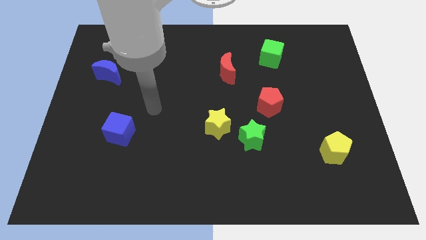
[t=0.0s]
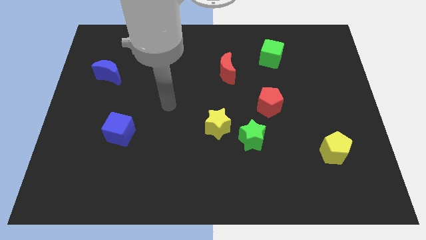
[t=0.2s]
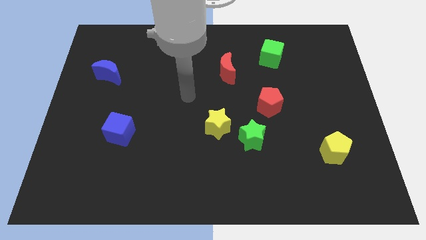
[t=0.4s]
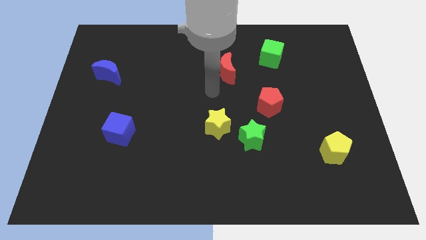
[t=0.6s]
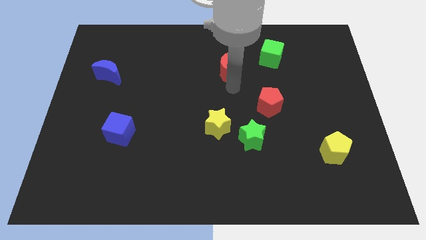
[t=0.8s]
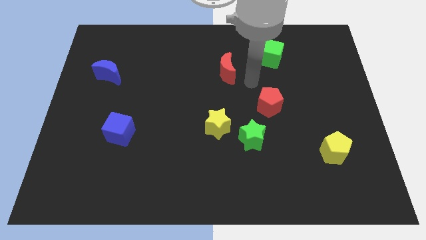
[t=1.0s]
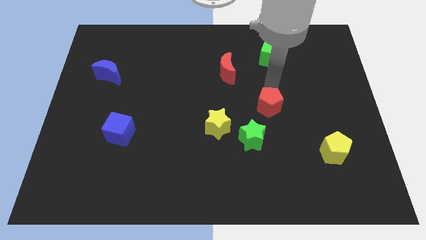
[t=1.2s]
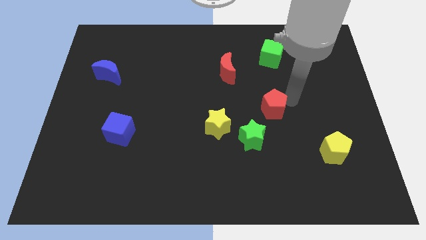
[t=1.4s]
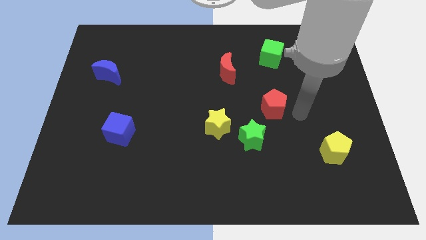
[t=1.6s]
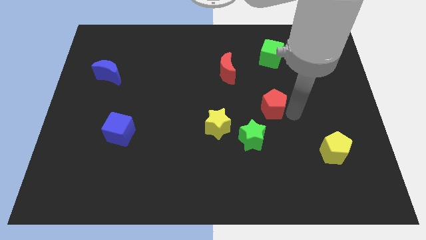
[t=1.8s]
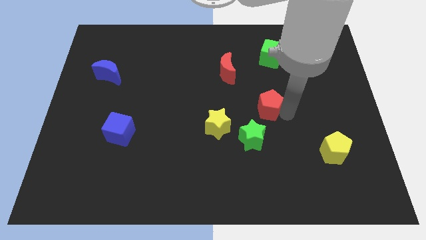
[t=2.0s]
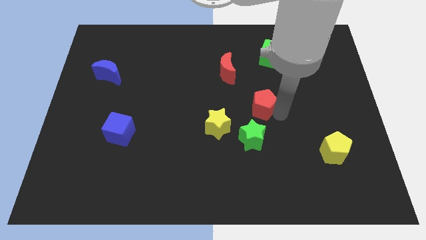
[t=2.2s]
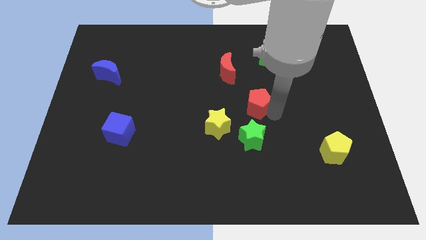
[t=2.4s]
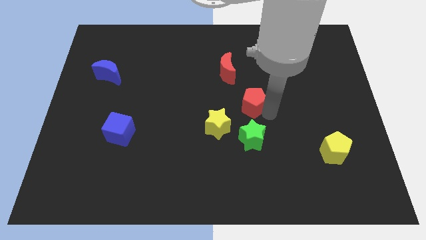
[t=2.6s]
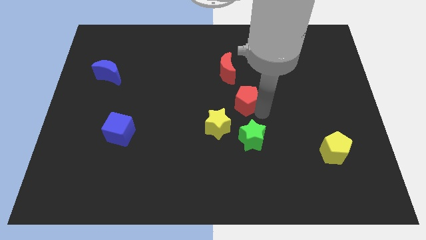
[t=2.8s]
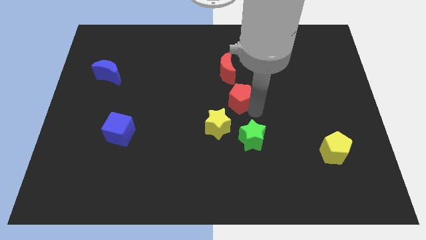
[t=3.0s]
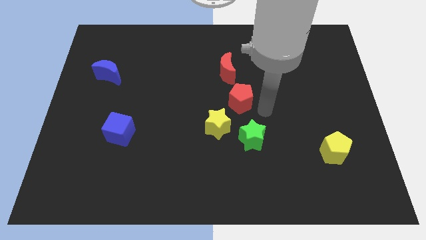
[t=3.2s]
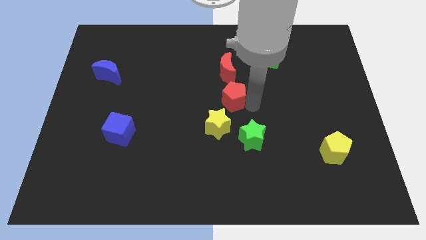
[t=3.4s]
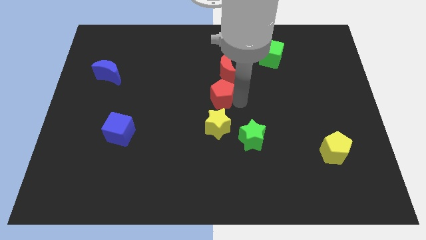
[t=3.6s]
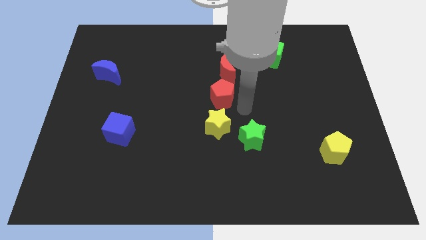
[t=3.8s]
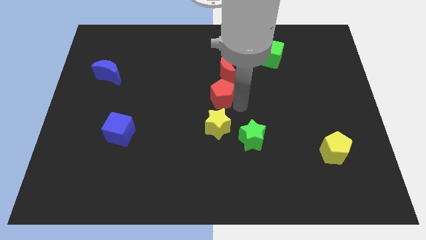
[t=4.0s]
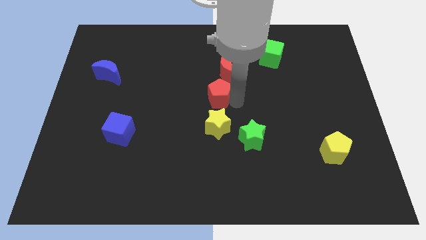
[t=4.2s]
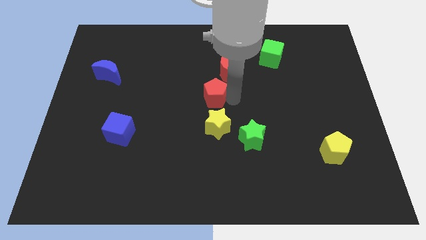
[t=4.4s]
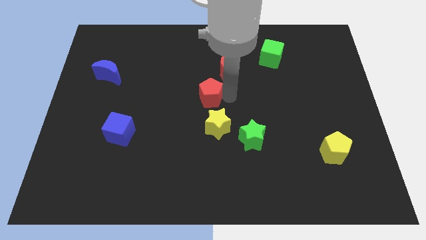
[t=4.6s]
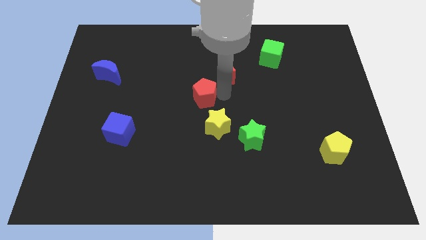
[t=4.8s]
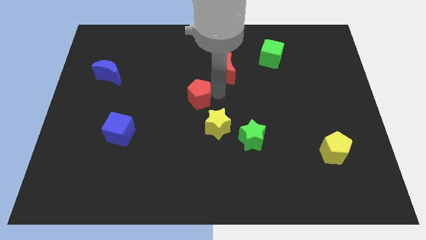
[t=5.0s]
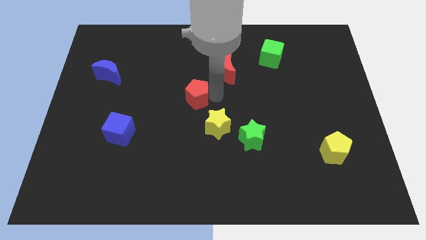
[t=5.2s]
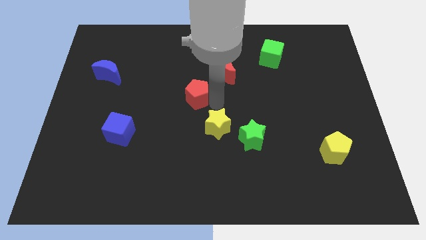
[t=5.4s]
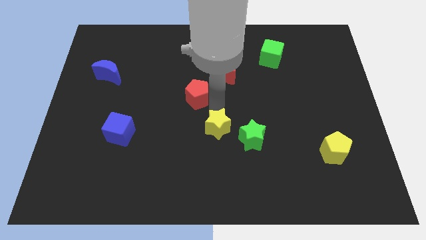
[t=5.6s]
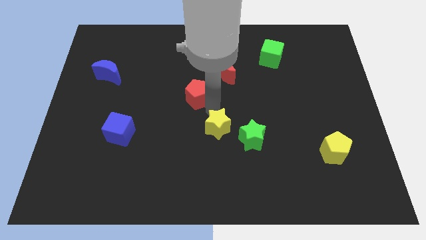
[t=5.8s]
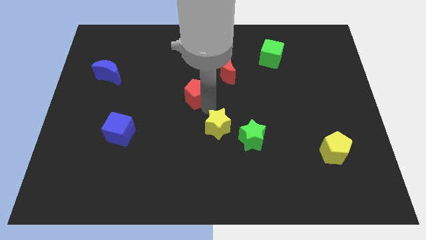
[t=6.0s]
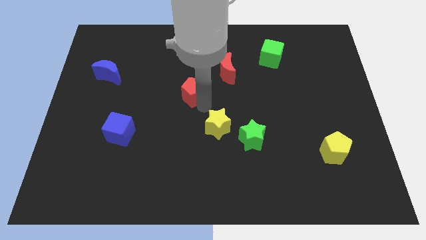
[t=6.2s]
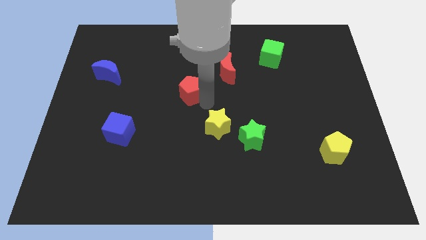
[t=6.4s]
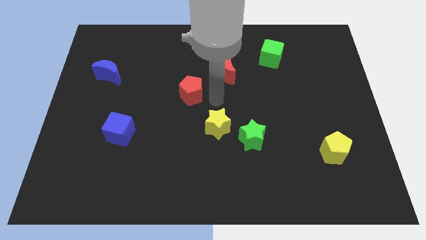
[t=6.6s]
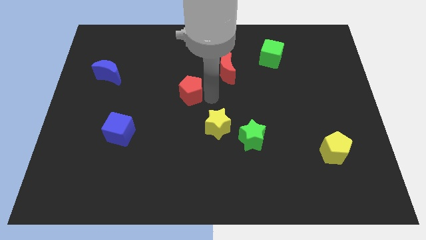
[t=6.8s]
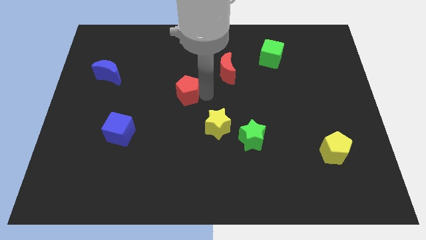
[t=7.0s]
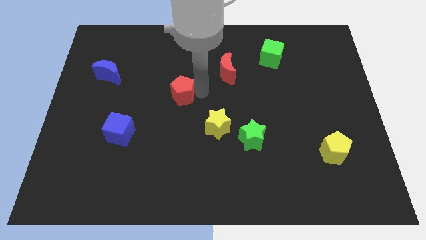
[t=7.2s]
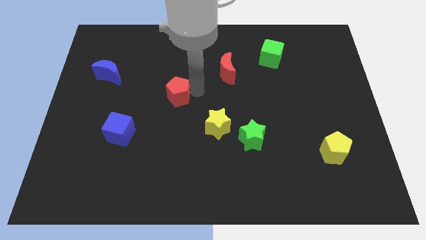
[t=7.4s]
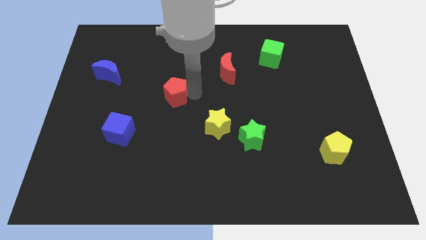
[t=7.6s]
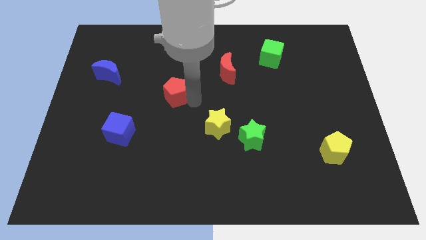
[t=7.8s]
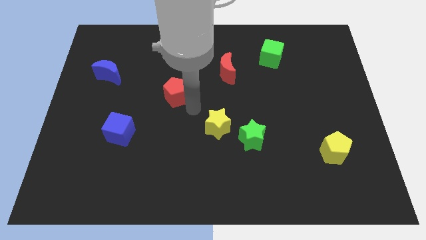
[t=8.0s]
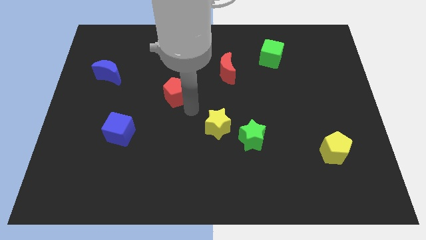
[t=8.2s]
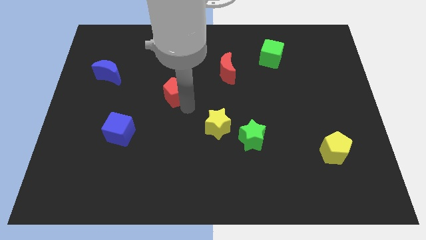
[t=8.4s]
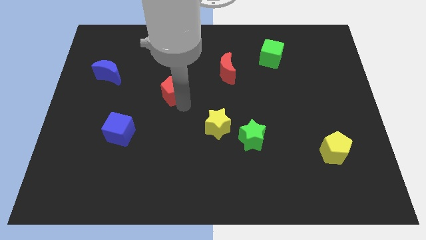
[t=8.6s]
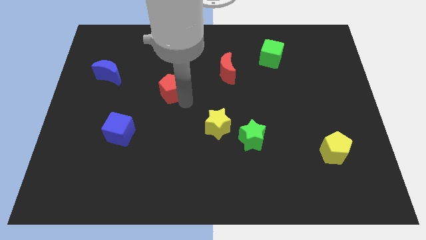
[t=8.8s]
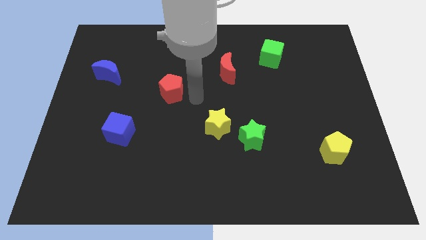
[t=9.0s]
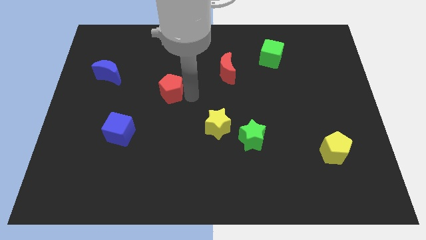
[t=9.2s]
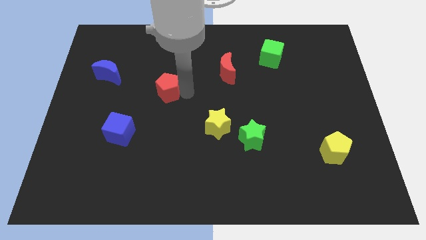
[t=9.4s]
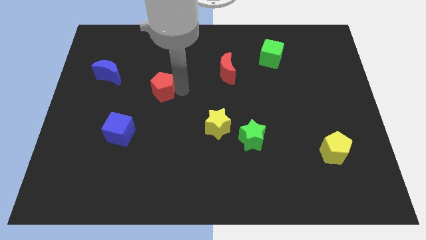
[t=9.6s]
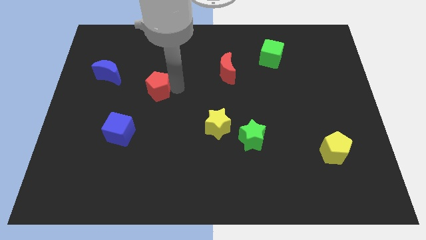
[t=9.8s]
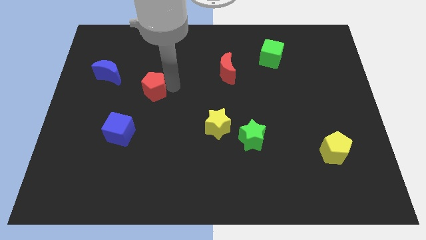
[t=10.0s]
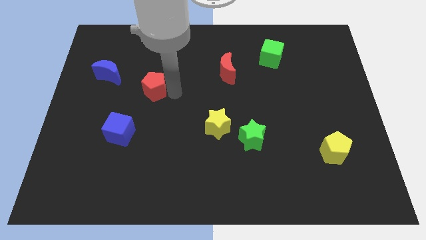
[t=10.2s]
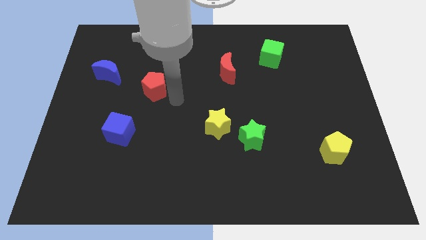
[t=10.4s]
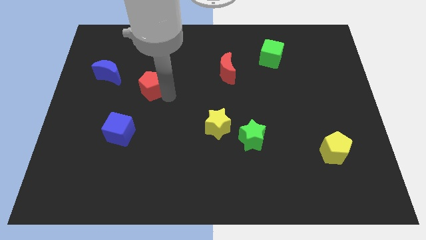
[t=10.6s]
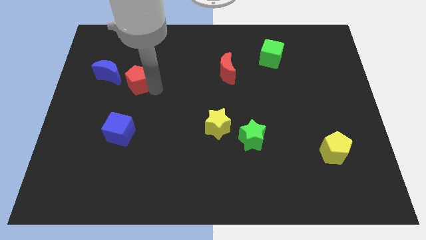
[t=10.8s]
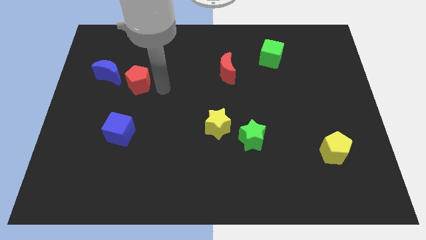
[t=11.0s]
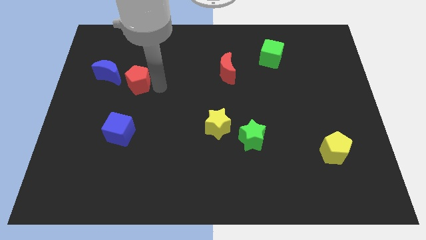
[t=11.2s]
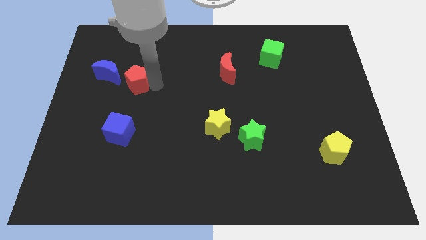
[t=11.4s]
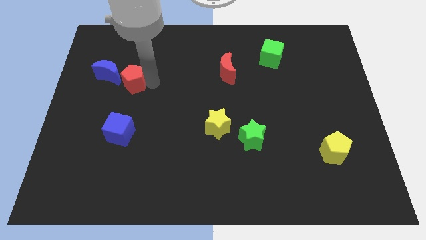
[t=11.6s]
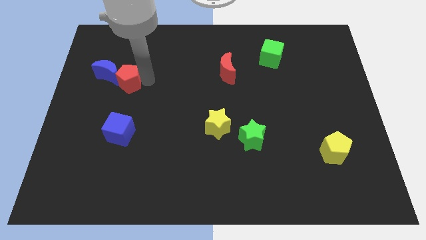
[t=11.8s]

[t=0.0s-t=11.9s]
move the red pentagon next to the blue moon

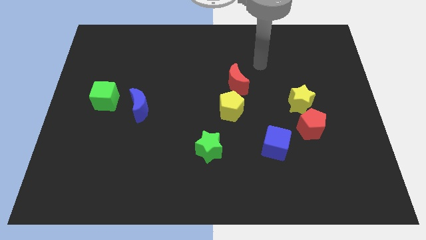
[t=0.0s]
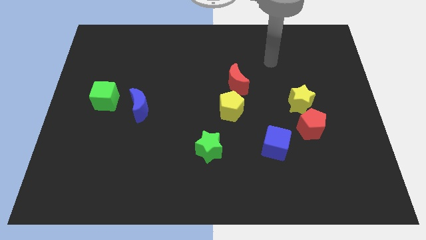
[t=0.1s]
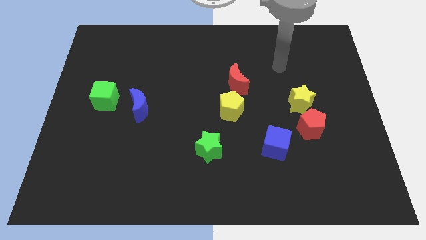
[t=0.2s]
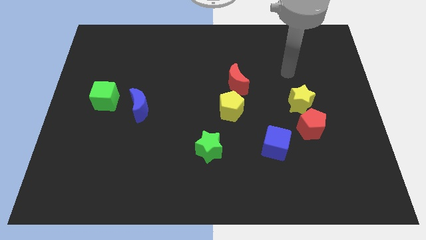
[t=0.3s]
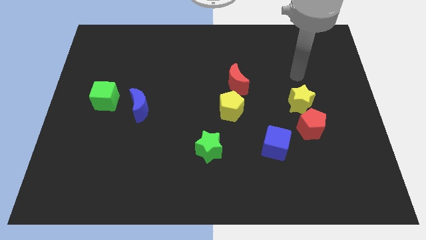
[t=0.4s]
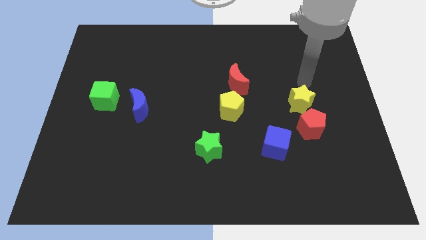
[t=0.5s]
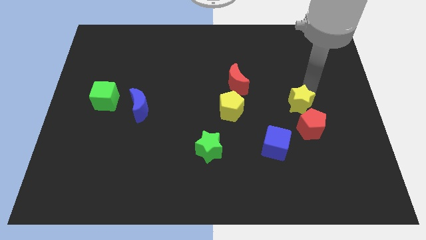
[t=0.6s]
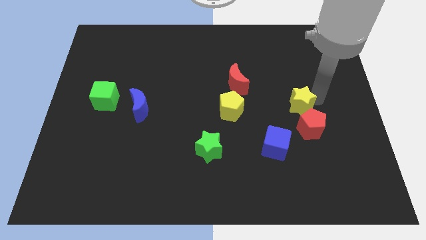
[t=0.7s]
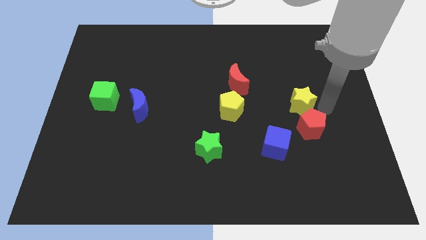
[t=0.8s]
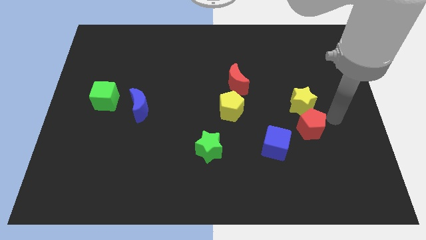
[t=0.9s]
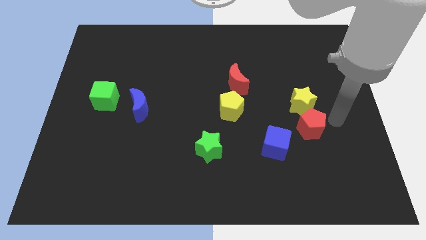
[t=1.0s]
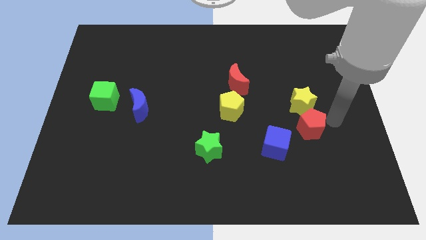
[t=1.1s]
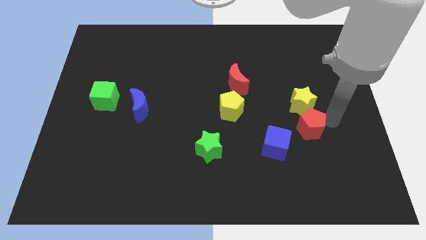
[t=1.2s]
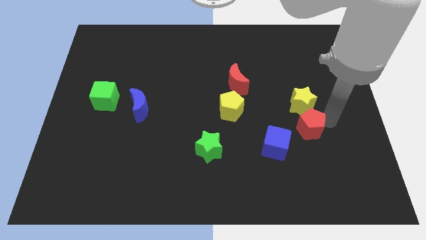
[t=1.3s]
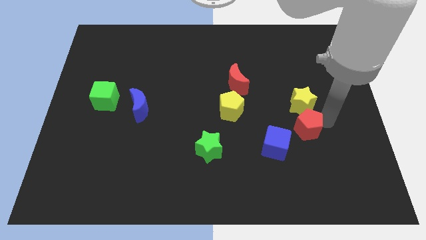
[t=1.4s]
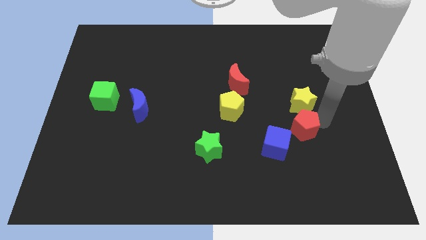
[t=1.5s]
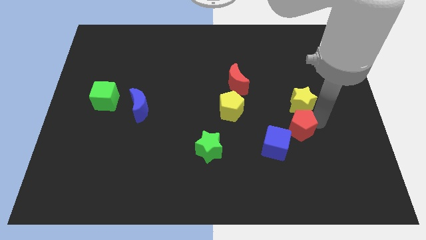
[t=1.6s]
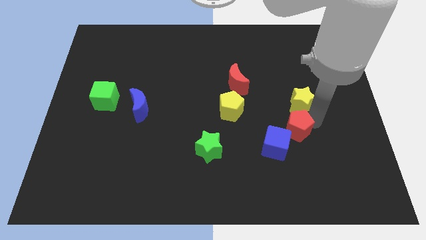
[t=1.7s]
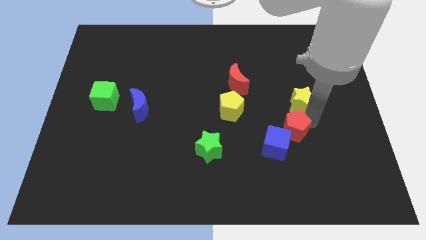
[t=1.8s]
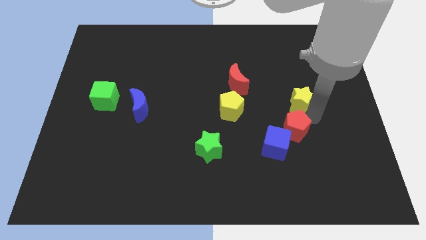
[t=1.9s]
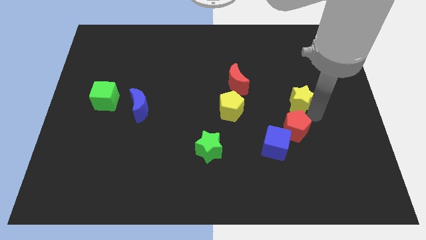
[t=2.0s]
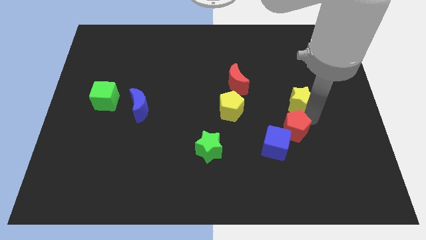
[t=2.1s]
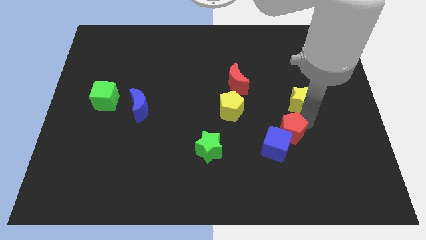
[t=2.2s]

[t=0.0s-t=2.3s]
slide the red pentagon towards the blue cube
